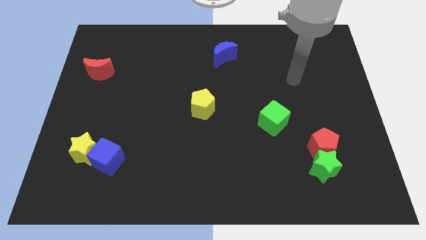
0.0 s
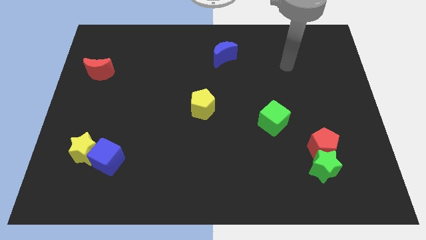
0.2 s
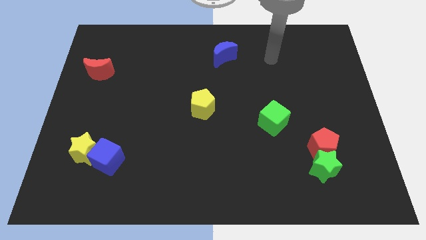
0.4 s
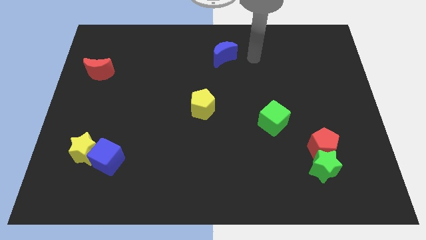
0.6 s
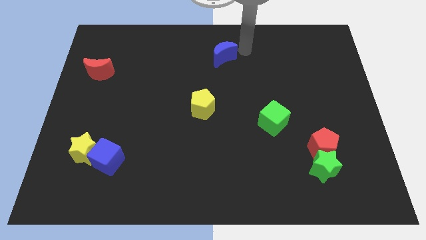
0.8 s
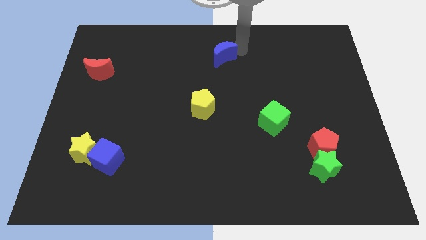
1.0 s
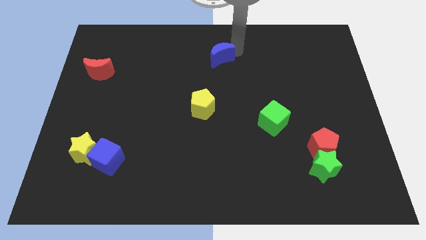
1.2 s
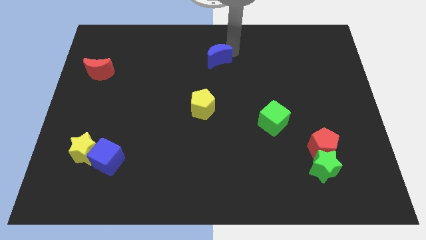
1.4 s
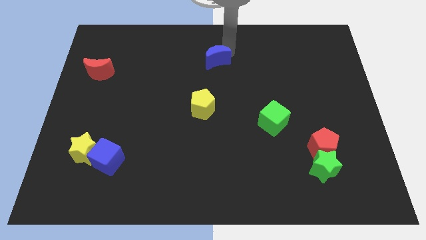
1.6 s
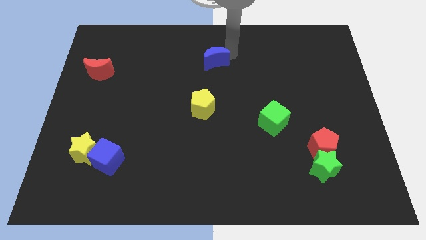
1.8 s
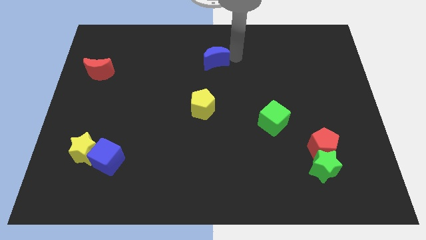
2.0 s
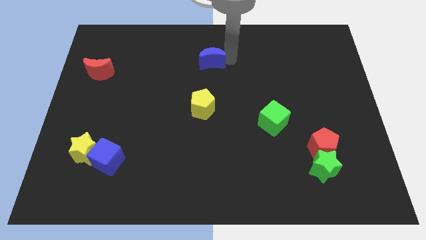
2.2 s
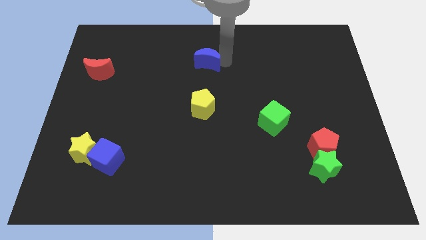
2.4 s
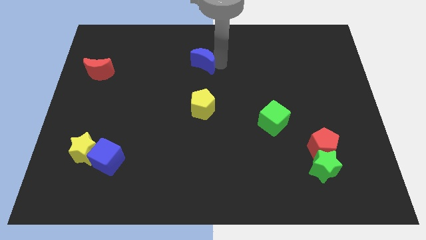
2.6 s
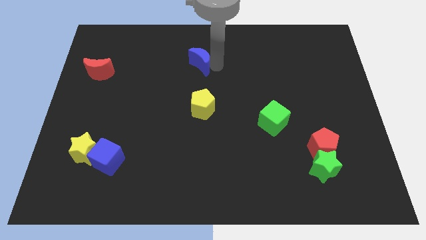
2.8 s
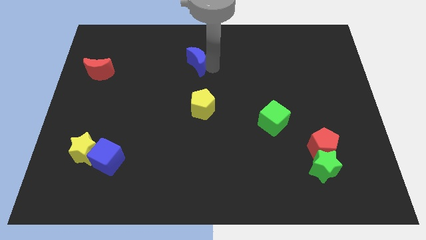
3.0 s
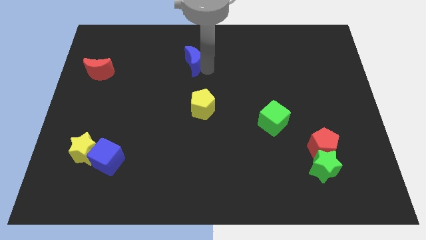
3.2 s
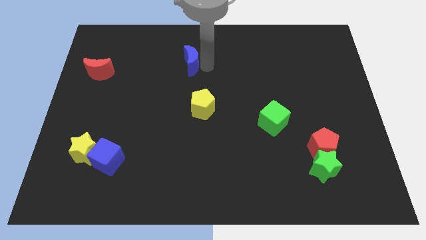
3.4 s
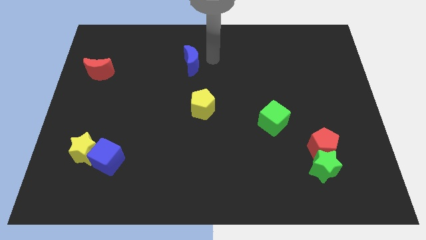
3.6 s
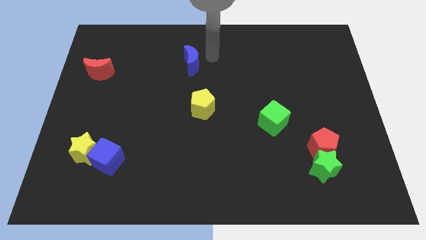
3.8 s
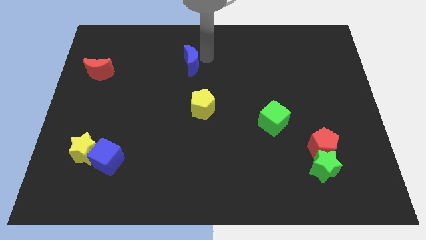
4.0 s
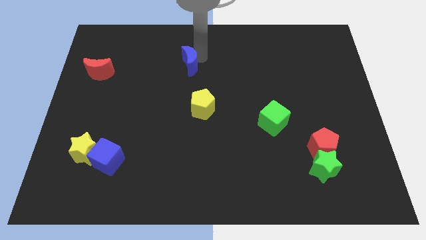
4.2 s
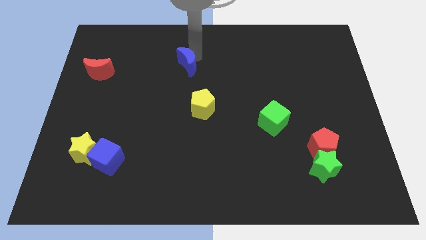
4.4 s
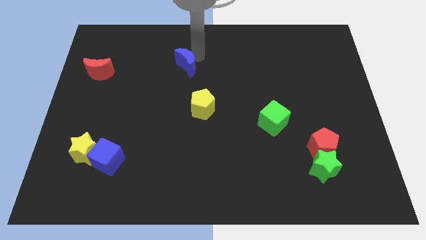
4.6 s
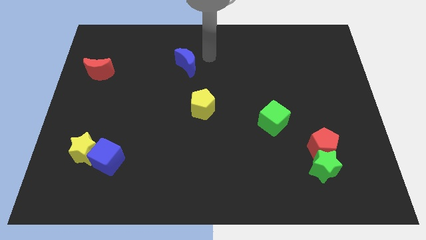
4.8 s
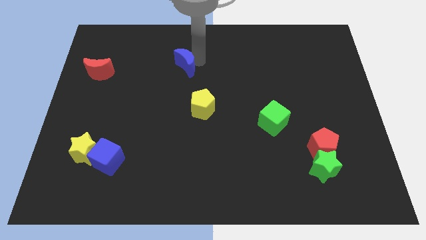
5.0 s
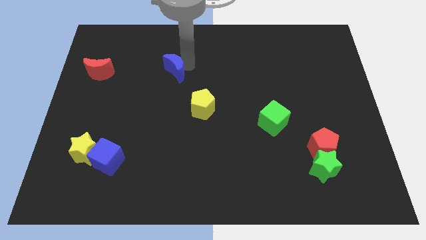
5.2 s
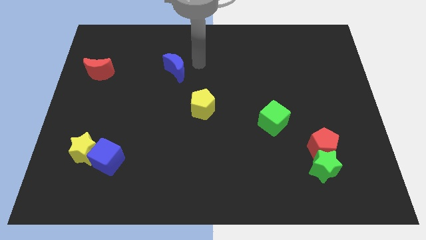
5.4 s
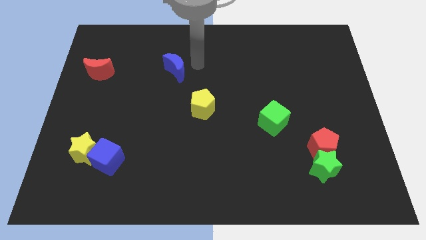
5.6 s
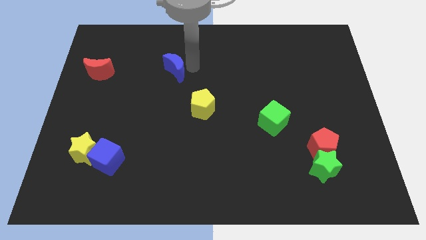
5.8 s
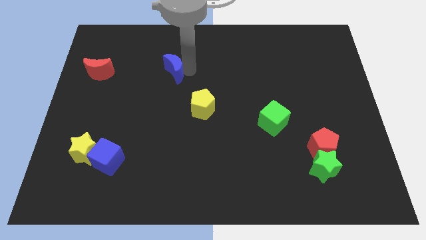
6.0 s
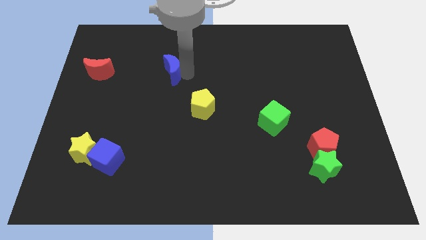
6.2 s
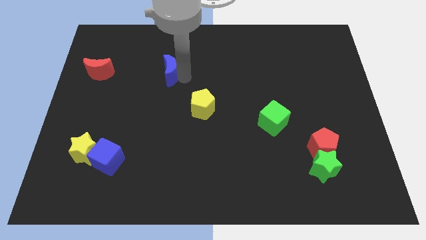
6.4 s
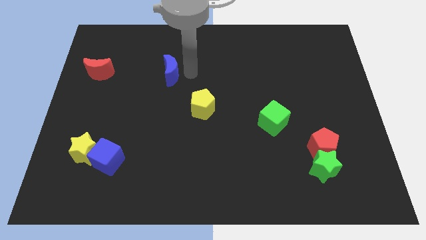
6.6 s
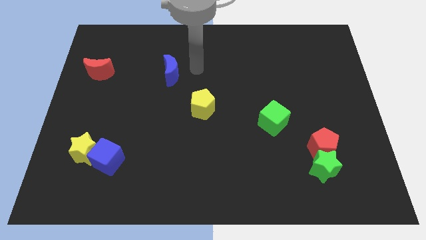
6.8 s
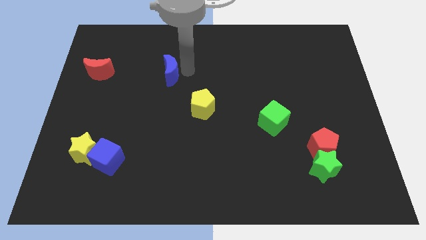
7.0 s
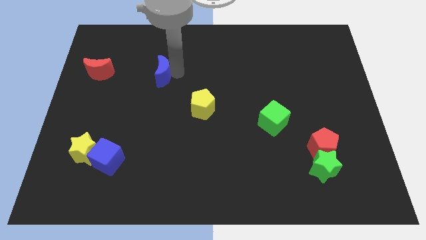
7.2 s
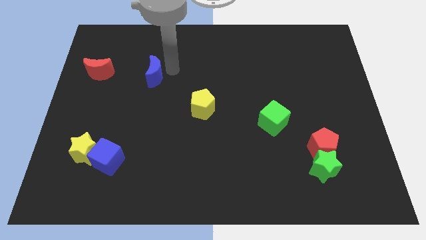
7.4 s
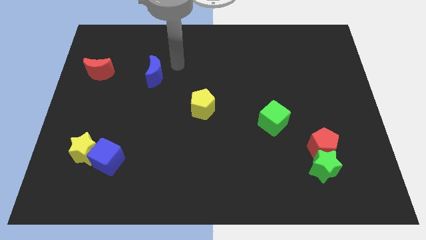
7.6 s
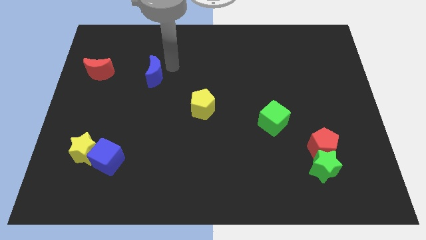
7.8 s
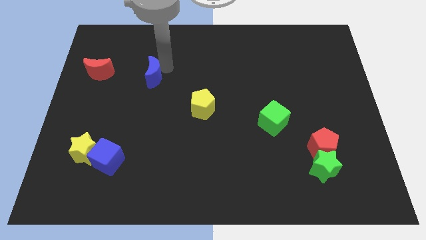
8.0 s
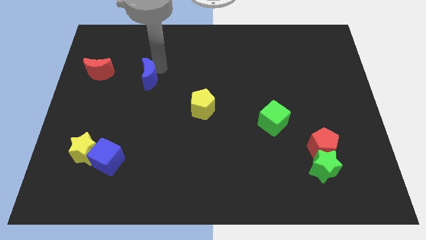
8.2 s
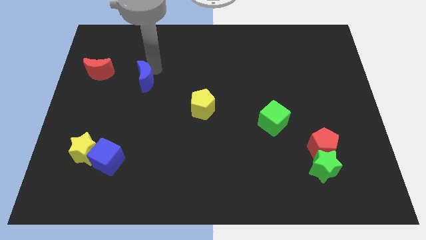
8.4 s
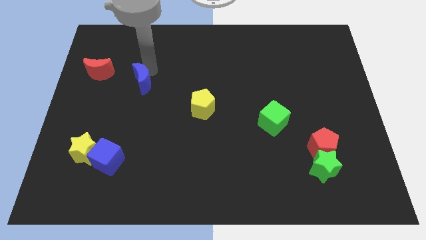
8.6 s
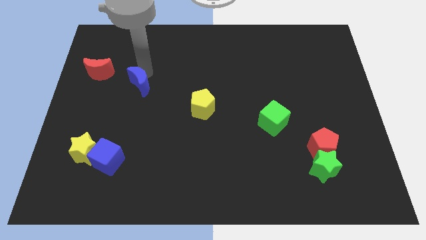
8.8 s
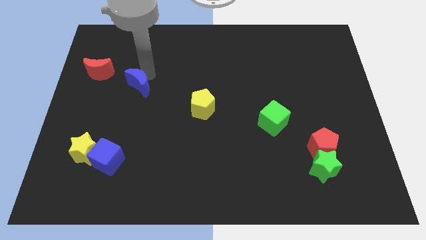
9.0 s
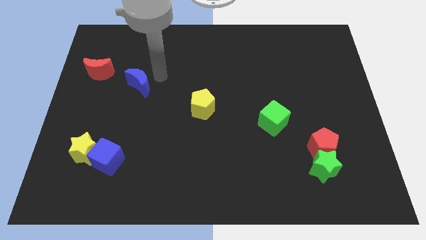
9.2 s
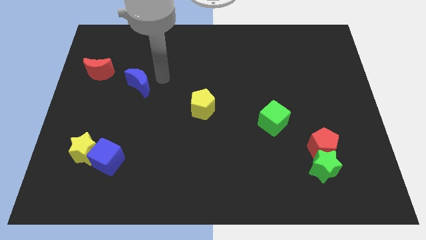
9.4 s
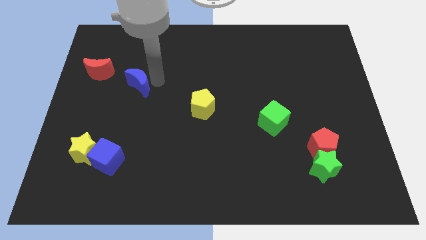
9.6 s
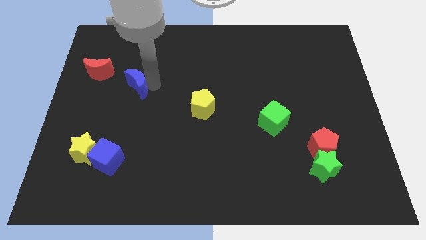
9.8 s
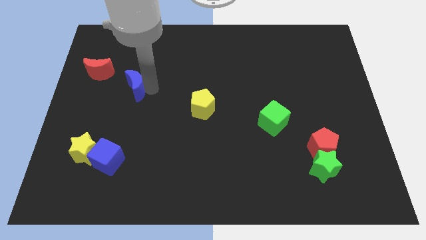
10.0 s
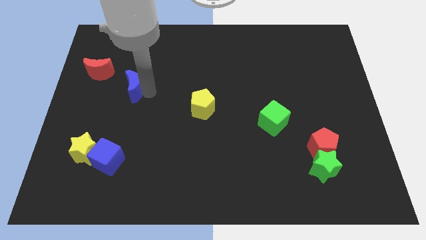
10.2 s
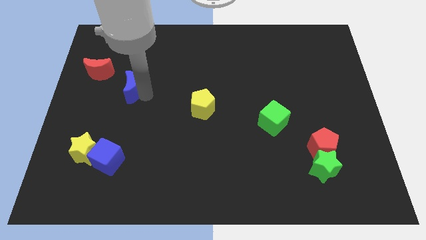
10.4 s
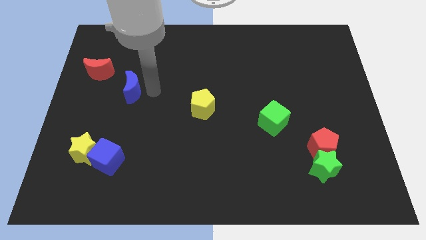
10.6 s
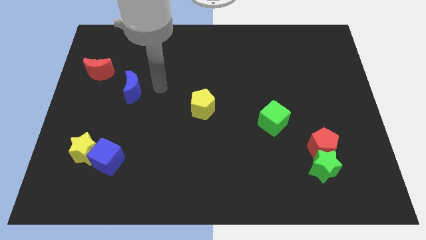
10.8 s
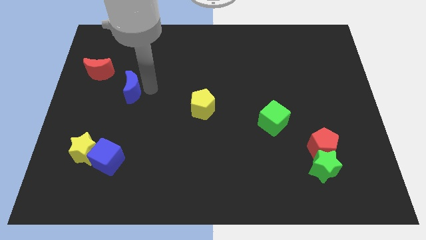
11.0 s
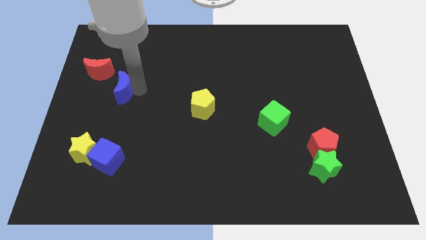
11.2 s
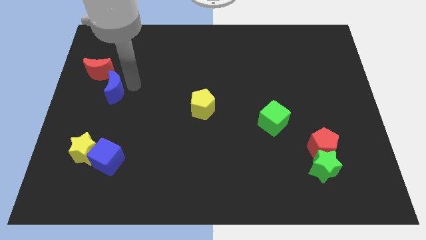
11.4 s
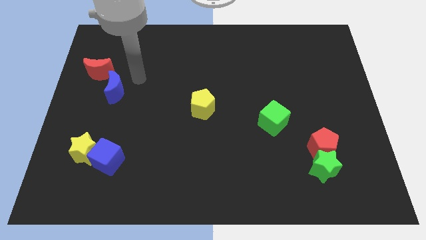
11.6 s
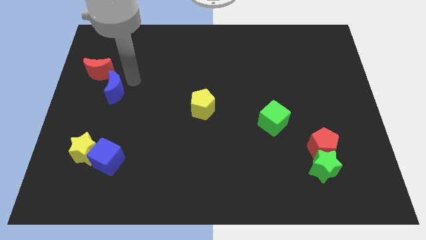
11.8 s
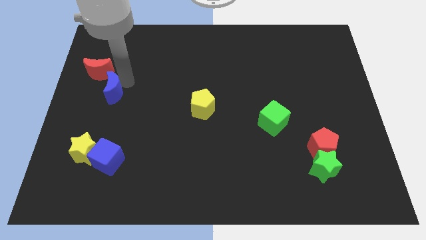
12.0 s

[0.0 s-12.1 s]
slide the blue moon to the bottom of the red moon

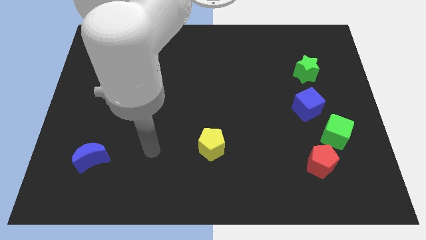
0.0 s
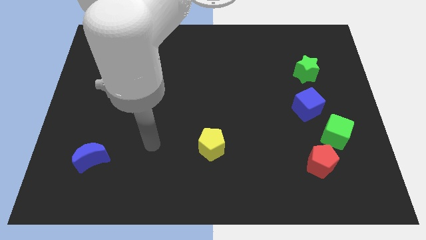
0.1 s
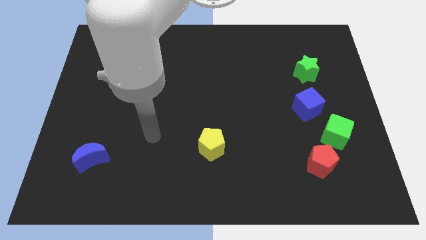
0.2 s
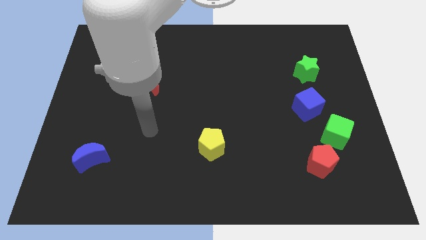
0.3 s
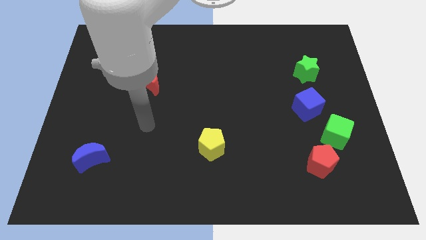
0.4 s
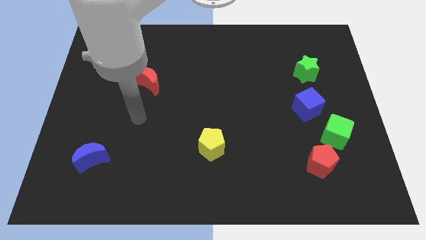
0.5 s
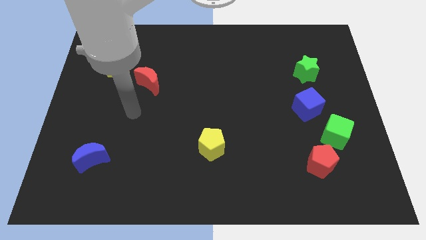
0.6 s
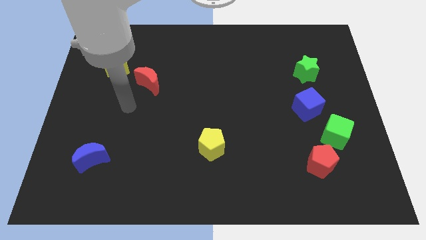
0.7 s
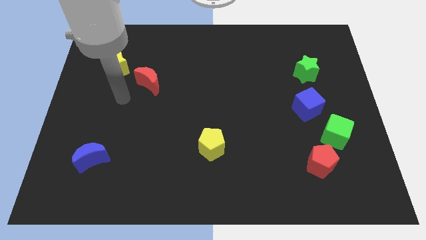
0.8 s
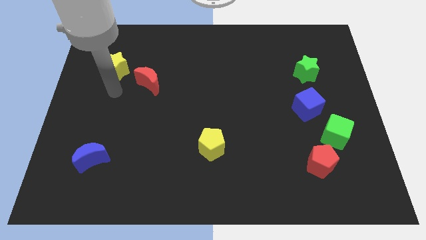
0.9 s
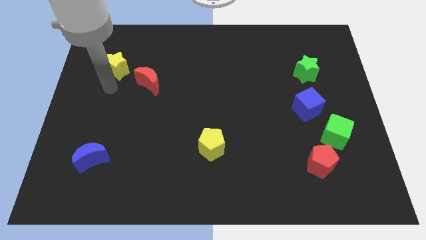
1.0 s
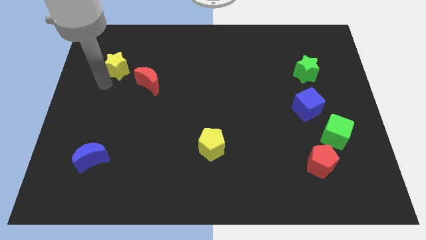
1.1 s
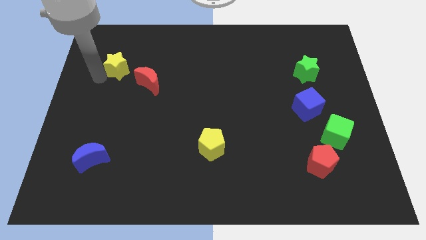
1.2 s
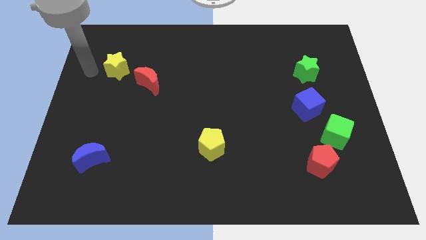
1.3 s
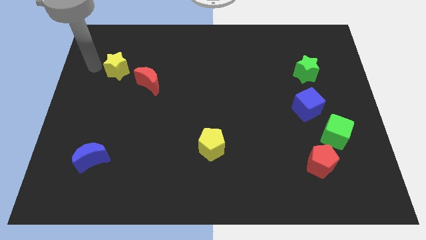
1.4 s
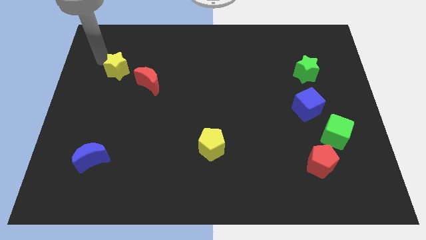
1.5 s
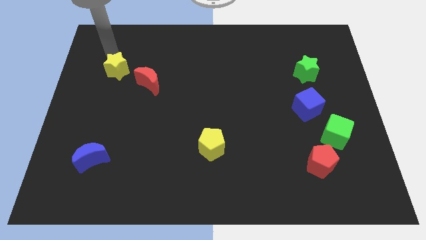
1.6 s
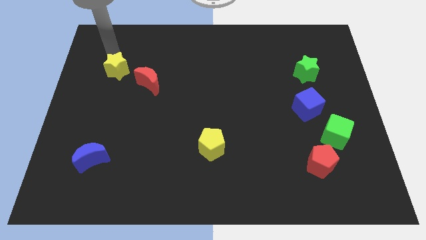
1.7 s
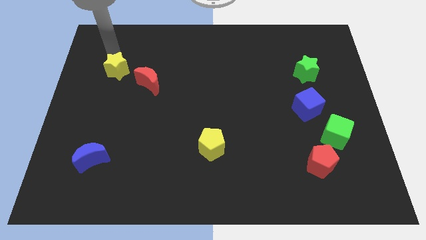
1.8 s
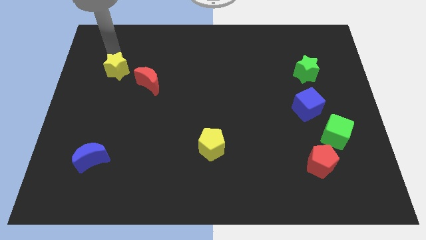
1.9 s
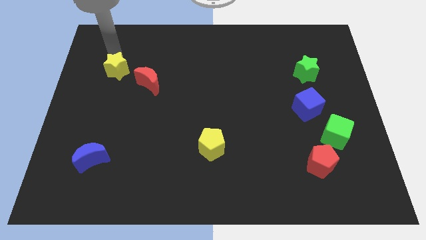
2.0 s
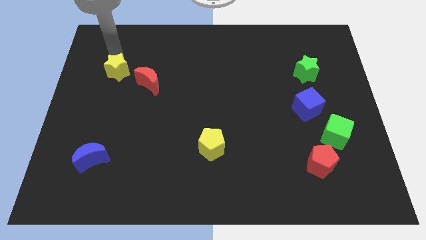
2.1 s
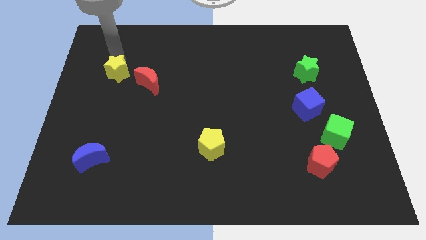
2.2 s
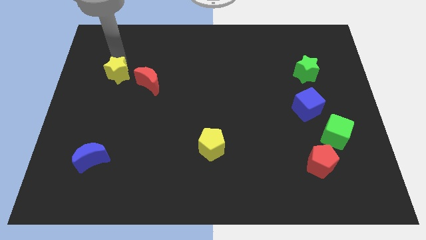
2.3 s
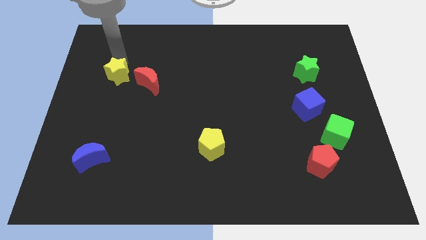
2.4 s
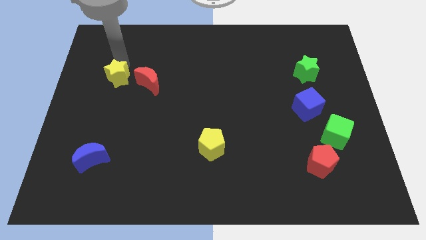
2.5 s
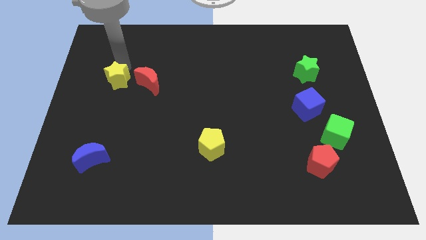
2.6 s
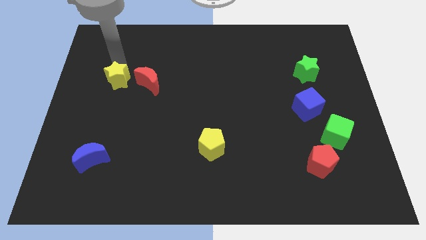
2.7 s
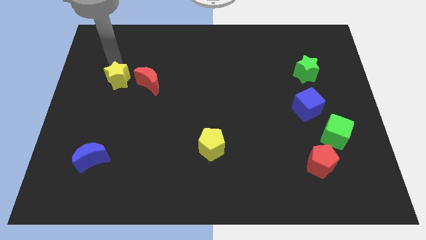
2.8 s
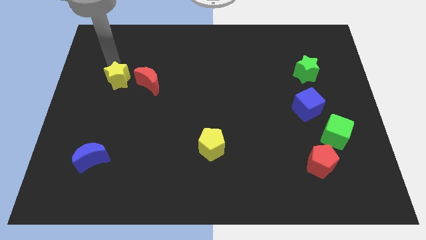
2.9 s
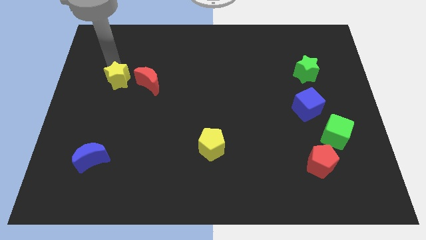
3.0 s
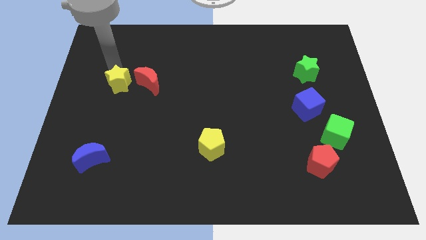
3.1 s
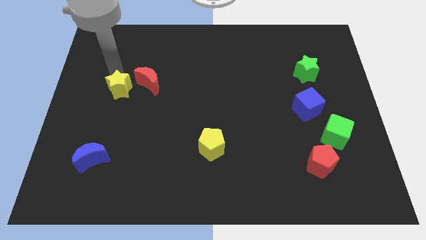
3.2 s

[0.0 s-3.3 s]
slide the yellow star to the bottom left of the red moon
